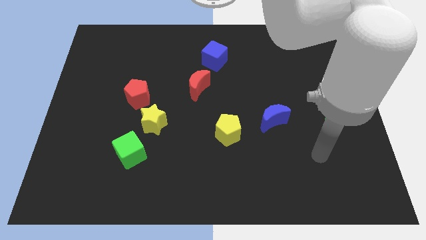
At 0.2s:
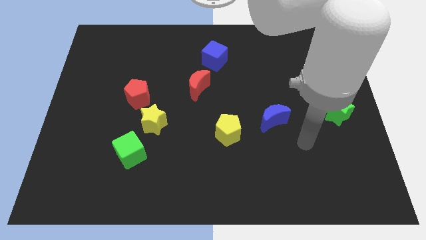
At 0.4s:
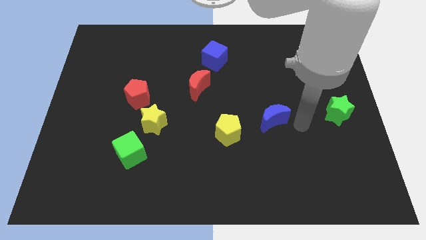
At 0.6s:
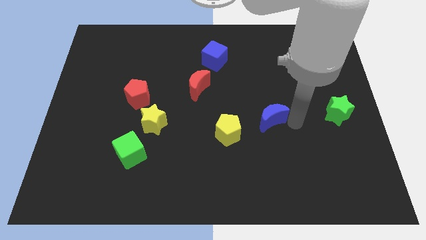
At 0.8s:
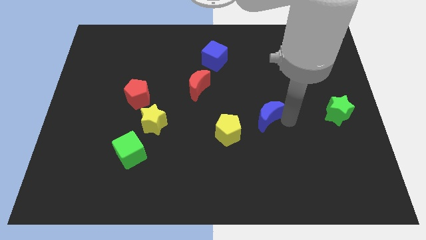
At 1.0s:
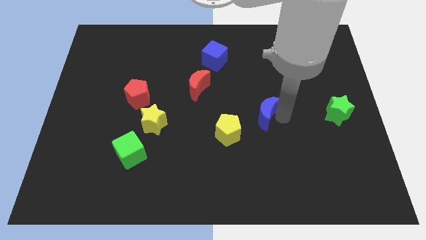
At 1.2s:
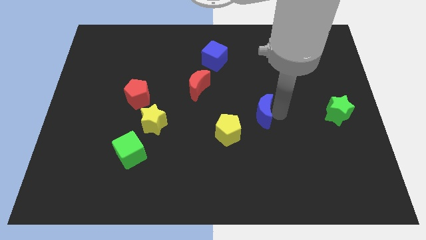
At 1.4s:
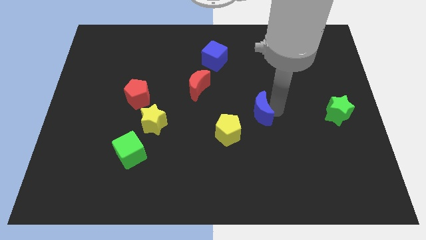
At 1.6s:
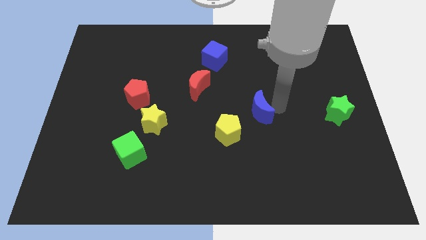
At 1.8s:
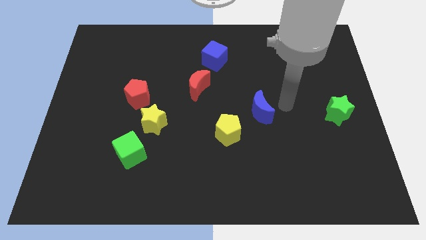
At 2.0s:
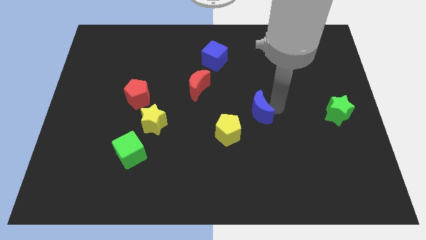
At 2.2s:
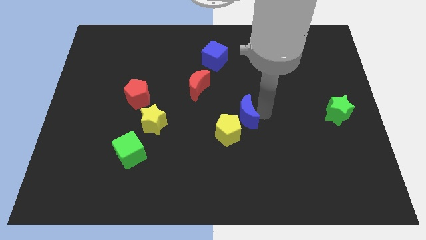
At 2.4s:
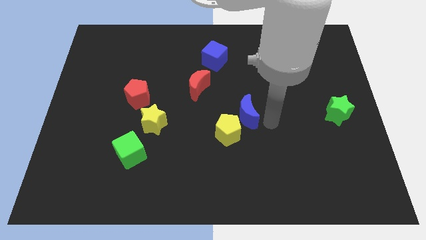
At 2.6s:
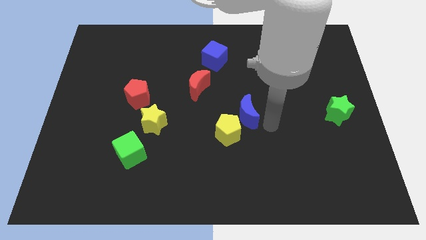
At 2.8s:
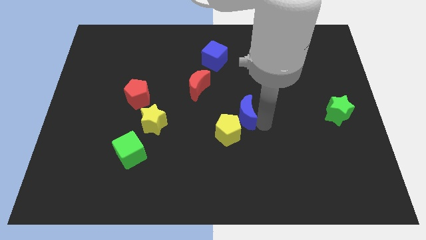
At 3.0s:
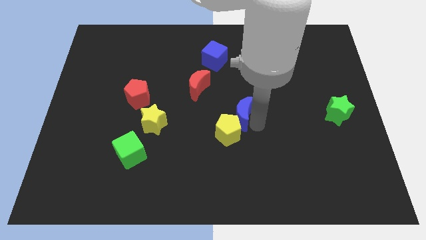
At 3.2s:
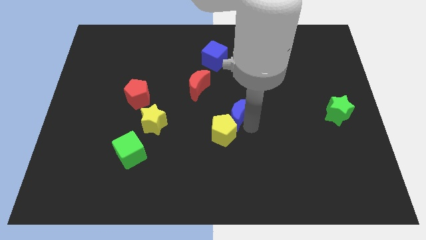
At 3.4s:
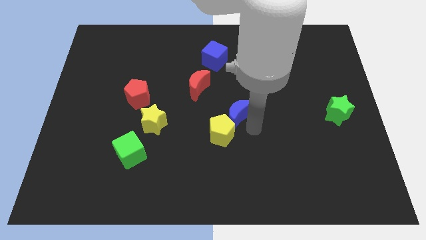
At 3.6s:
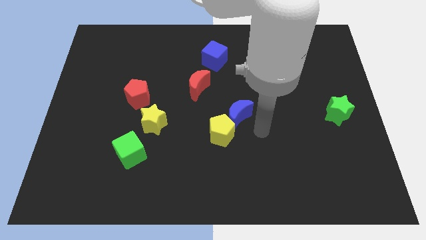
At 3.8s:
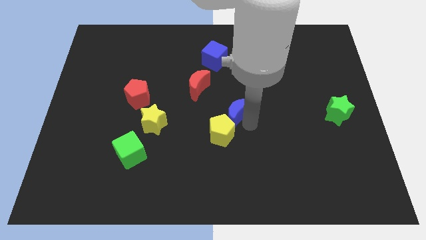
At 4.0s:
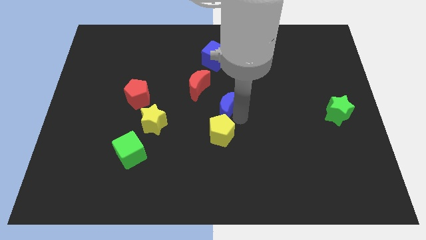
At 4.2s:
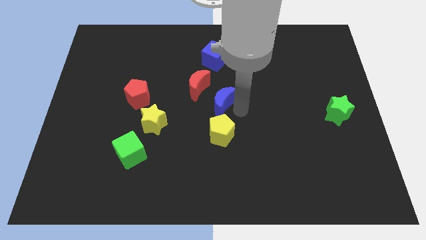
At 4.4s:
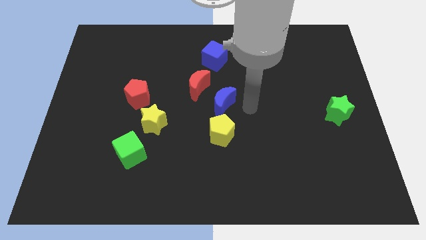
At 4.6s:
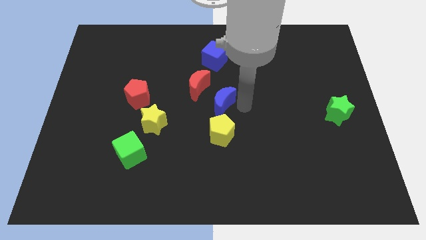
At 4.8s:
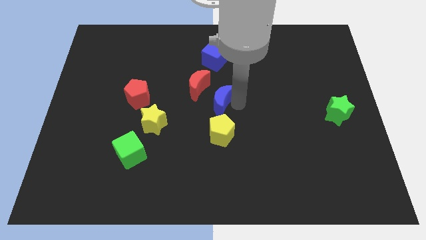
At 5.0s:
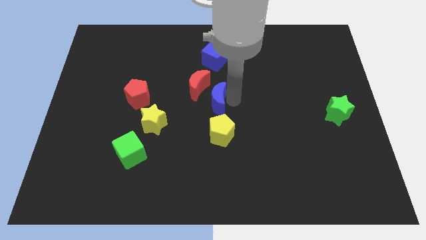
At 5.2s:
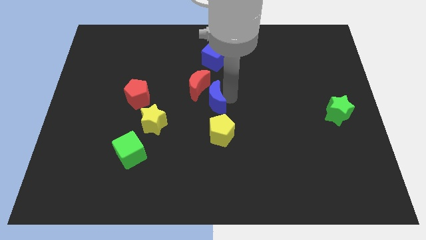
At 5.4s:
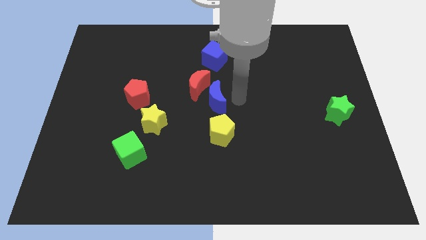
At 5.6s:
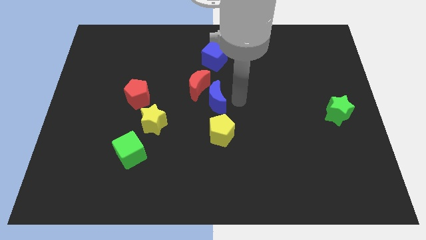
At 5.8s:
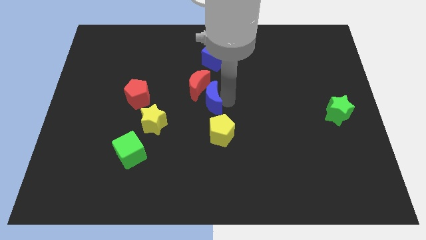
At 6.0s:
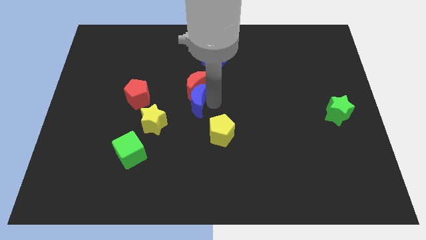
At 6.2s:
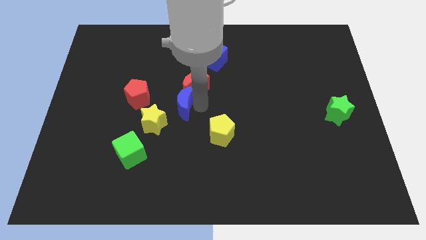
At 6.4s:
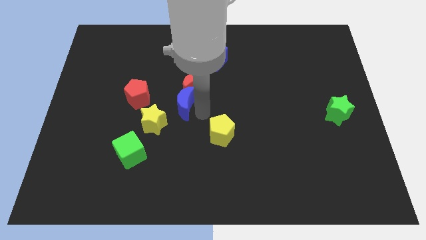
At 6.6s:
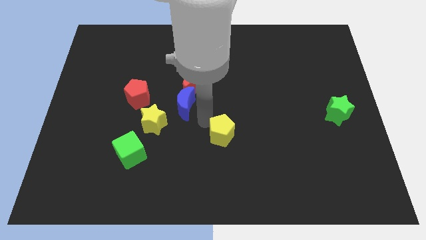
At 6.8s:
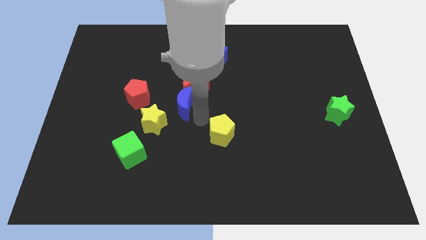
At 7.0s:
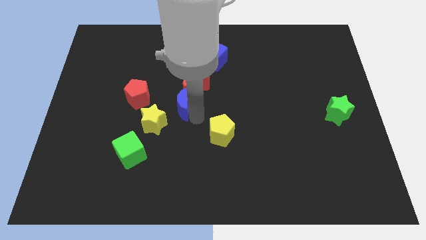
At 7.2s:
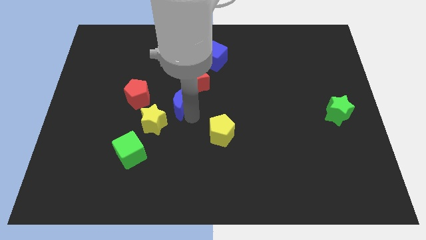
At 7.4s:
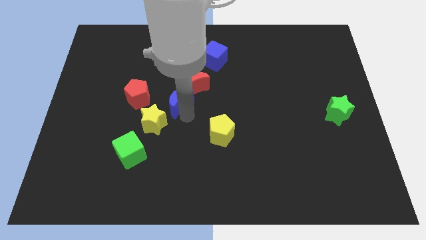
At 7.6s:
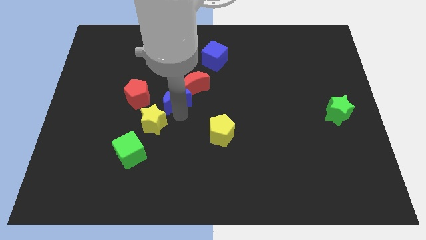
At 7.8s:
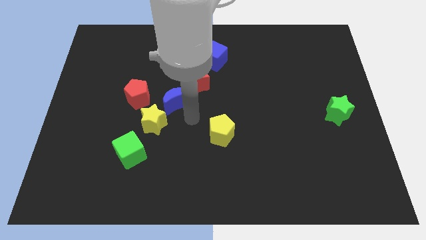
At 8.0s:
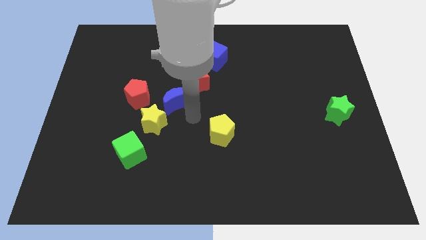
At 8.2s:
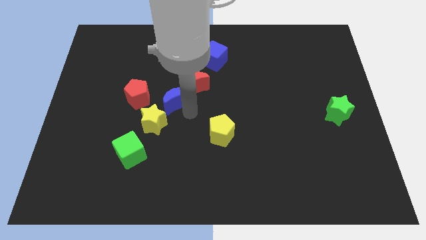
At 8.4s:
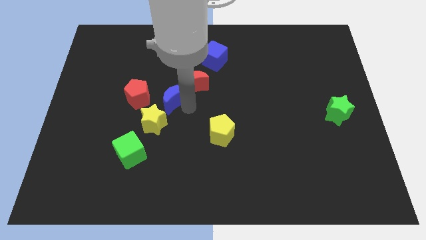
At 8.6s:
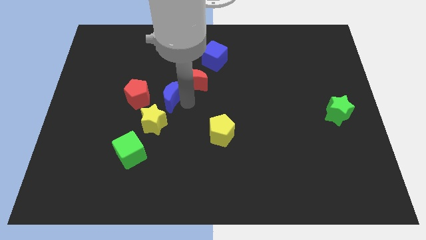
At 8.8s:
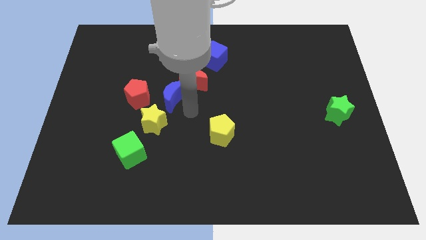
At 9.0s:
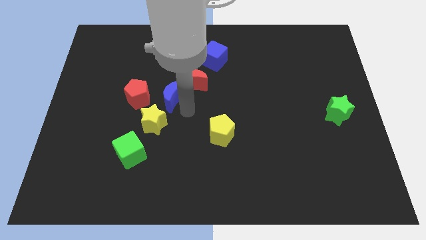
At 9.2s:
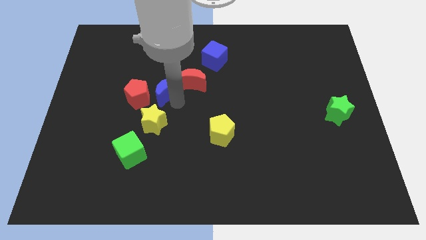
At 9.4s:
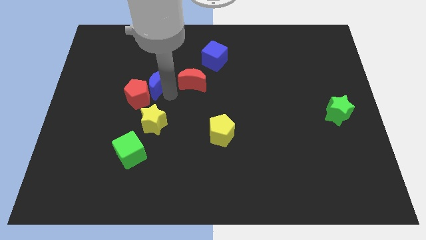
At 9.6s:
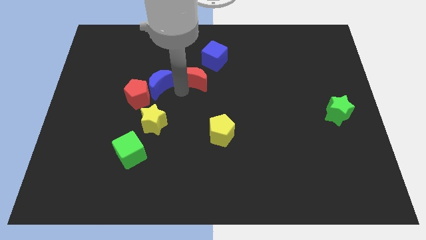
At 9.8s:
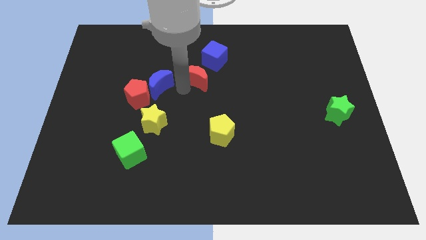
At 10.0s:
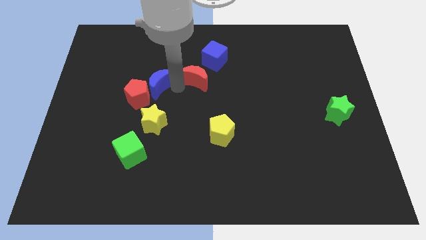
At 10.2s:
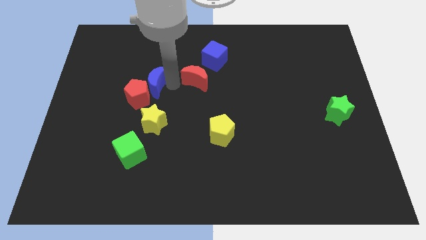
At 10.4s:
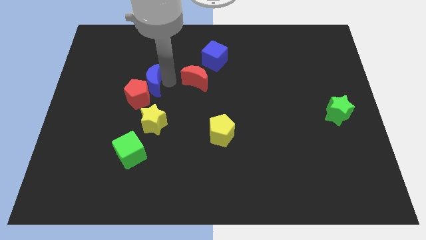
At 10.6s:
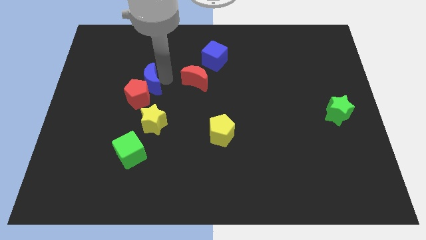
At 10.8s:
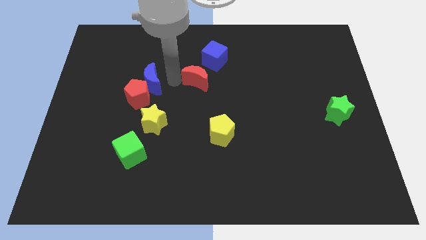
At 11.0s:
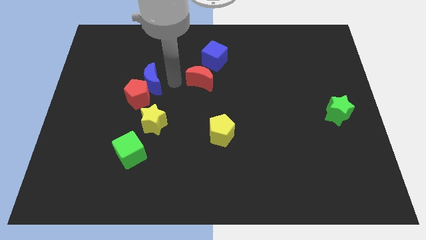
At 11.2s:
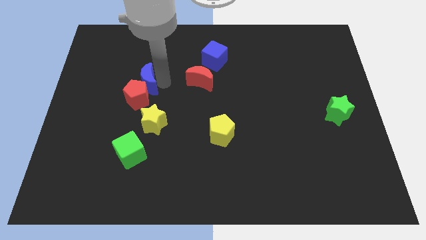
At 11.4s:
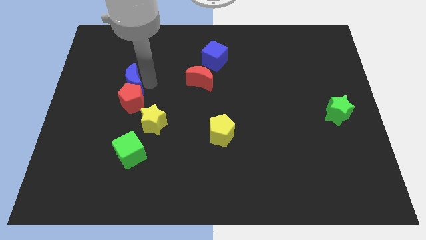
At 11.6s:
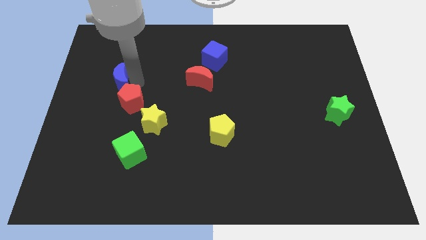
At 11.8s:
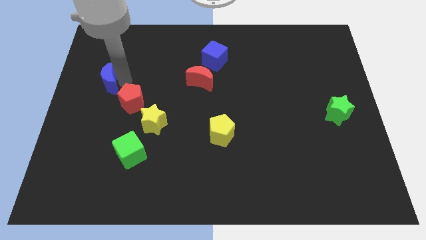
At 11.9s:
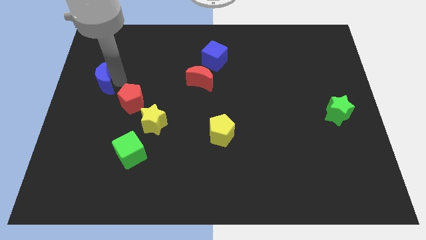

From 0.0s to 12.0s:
slide the blue moon to the center left

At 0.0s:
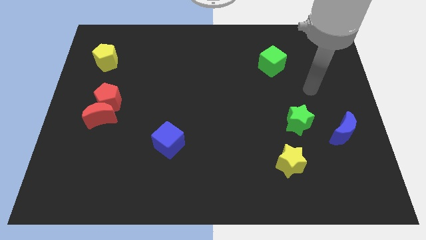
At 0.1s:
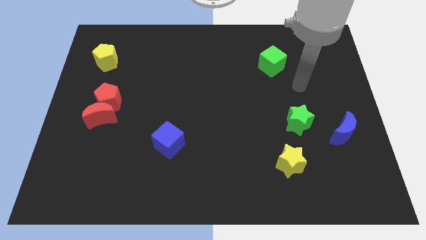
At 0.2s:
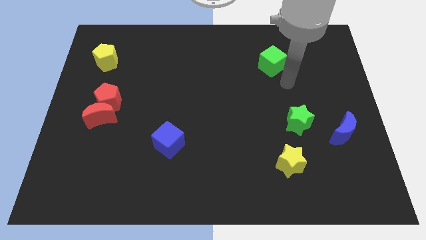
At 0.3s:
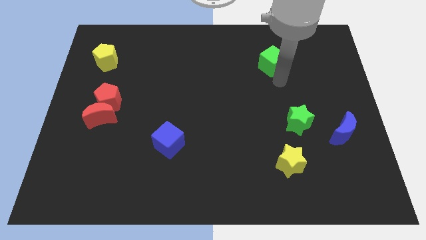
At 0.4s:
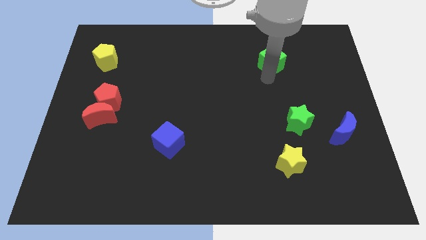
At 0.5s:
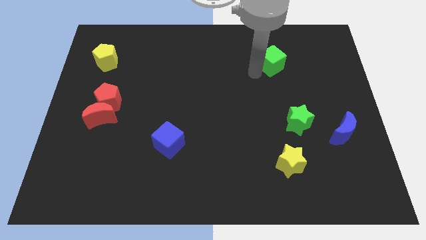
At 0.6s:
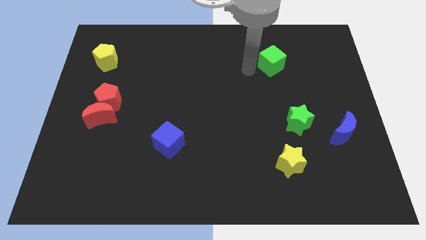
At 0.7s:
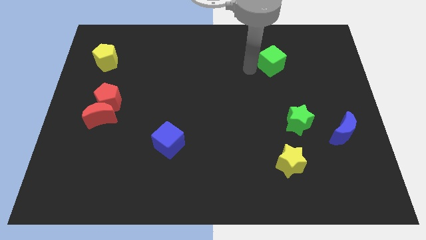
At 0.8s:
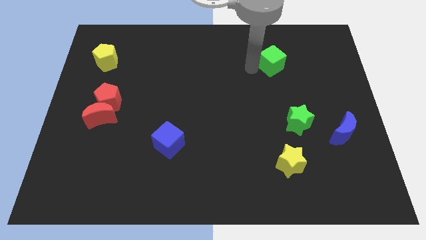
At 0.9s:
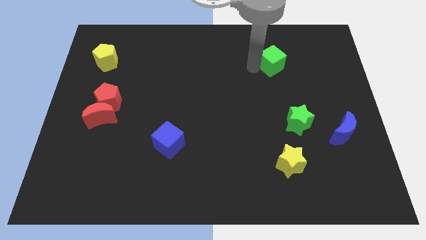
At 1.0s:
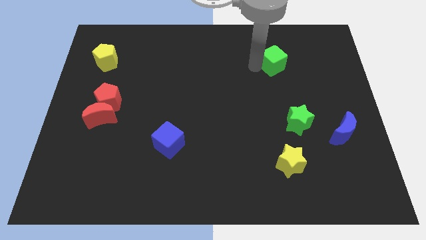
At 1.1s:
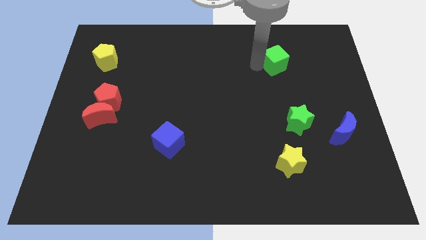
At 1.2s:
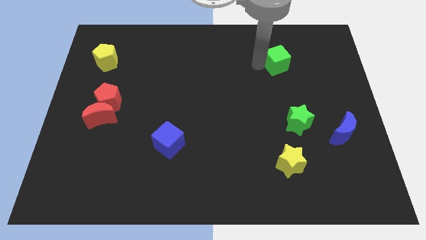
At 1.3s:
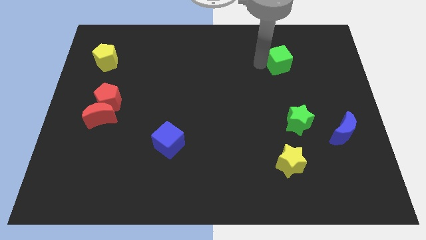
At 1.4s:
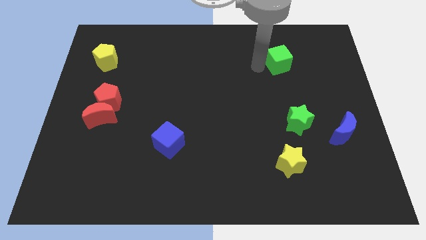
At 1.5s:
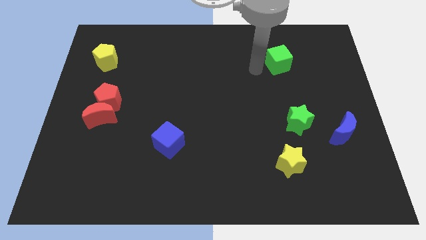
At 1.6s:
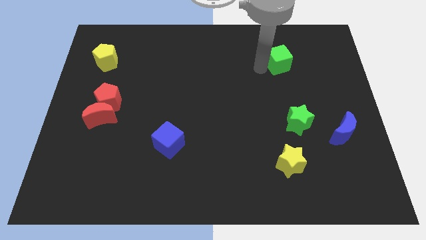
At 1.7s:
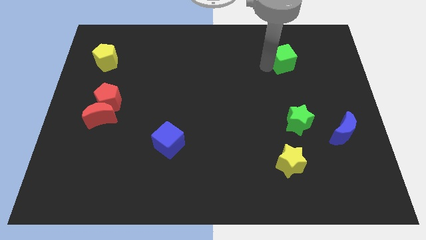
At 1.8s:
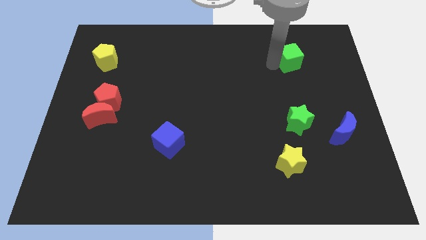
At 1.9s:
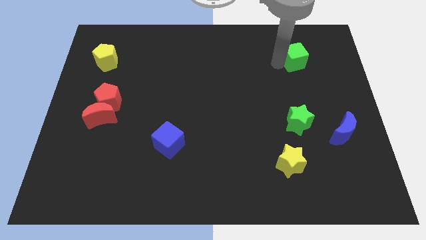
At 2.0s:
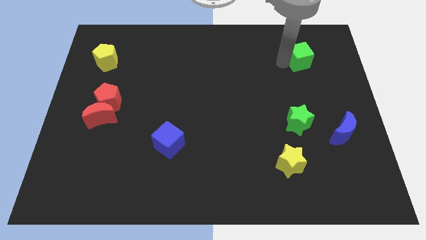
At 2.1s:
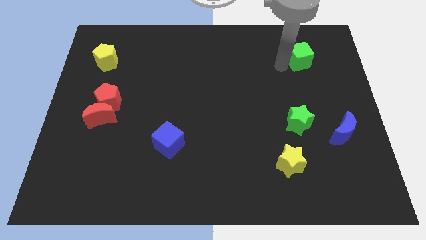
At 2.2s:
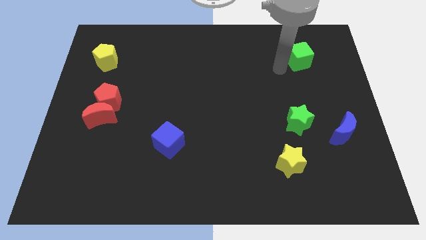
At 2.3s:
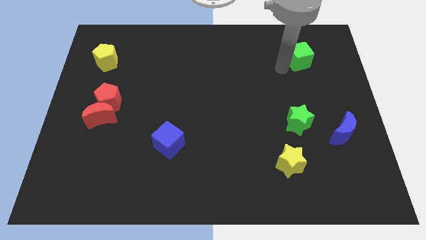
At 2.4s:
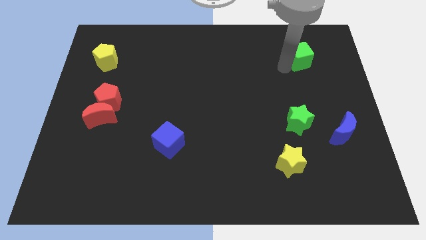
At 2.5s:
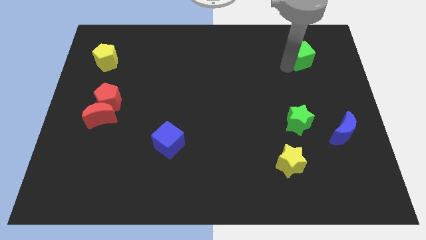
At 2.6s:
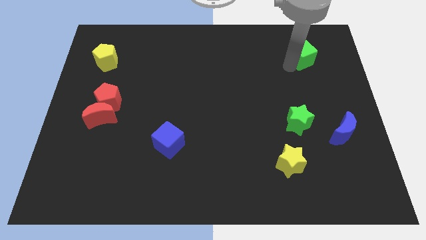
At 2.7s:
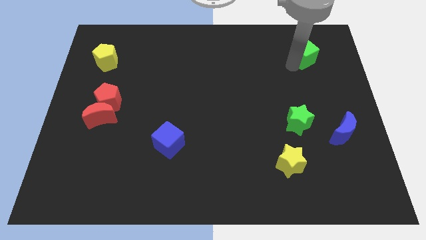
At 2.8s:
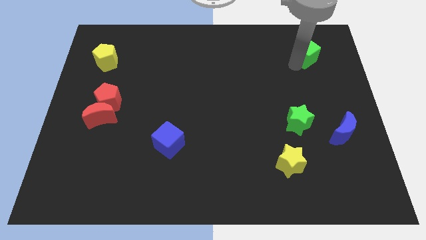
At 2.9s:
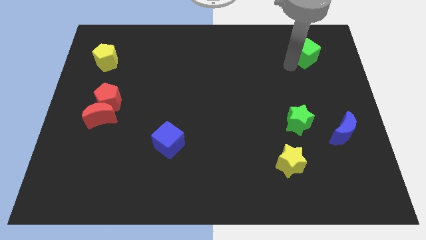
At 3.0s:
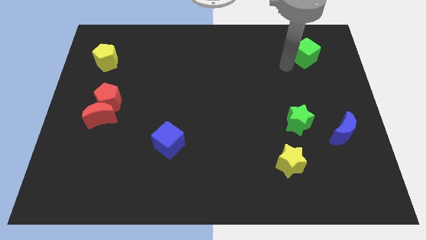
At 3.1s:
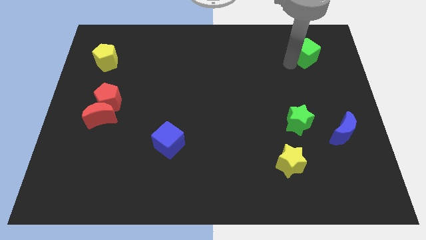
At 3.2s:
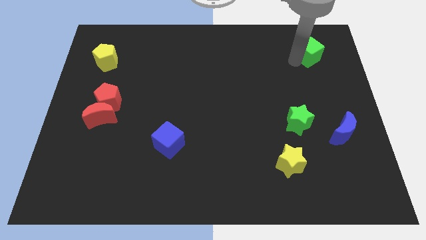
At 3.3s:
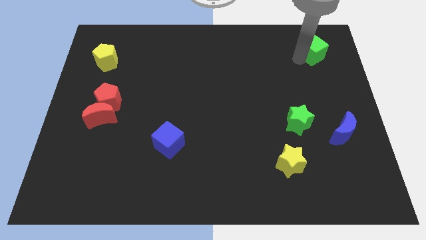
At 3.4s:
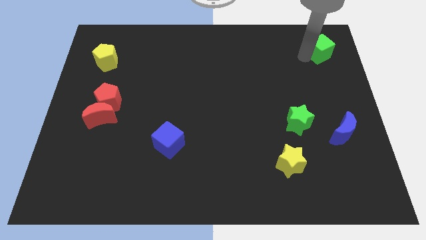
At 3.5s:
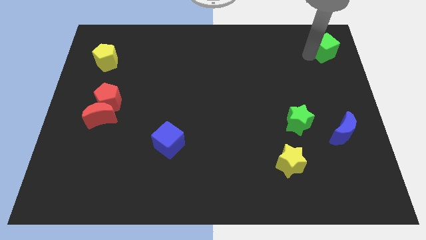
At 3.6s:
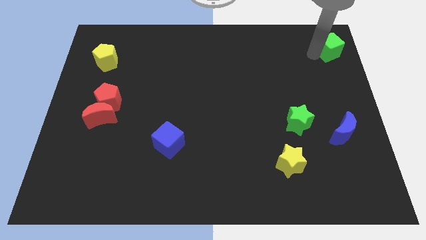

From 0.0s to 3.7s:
put the green cube to the top right
